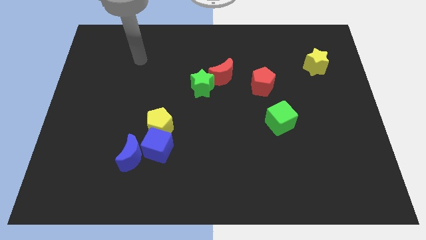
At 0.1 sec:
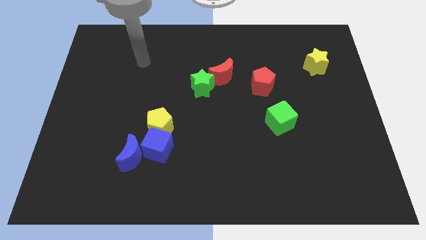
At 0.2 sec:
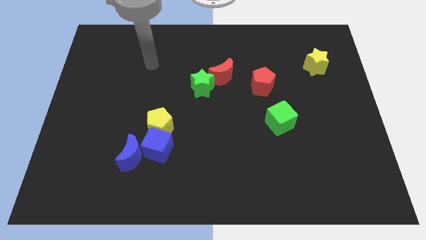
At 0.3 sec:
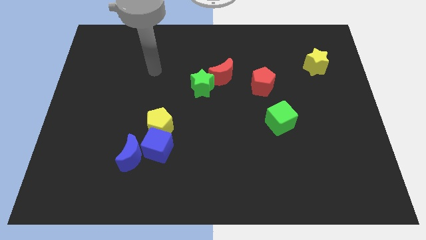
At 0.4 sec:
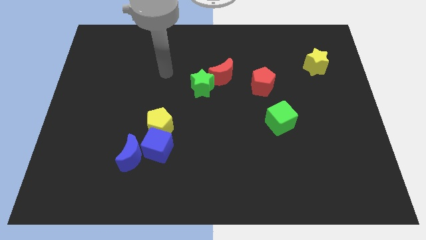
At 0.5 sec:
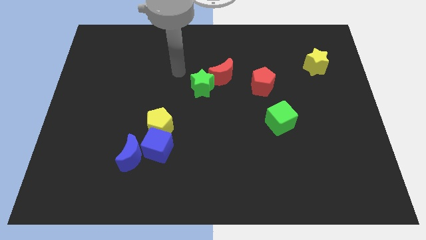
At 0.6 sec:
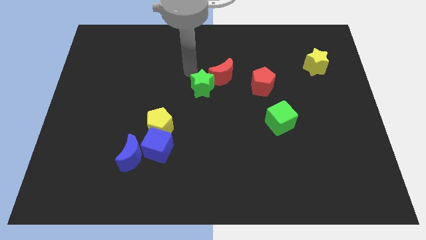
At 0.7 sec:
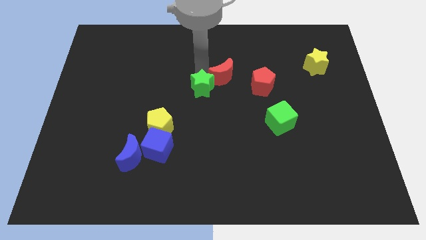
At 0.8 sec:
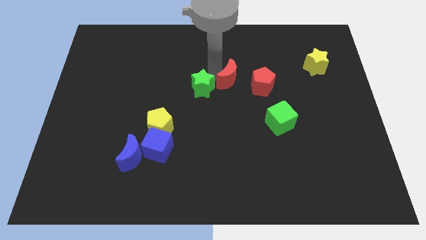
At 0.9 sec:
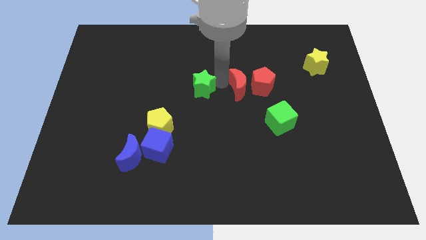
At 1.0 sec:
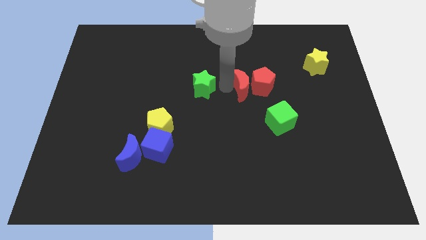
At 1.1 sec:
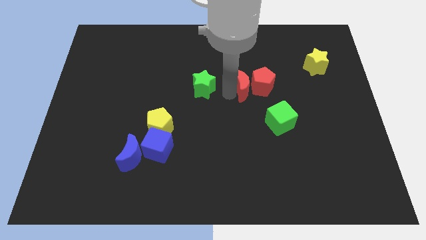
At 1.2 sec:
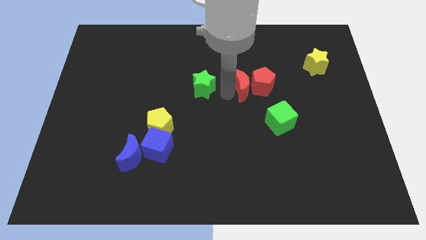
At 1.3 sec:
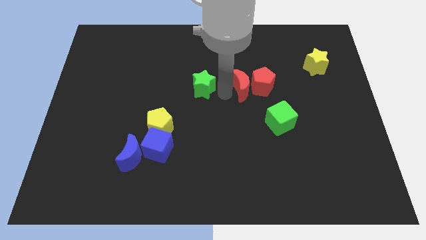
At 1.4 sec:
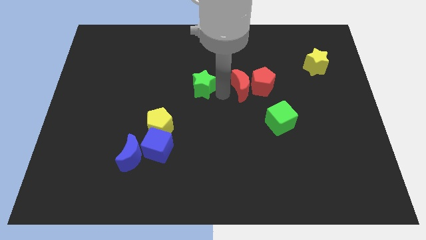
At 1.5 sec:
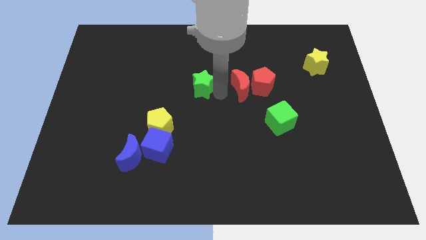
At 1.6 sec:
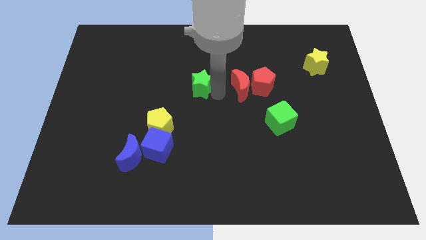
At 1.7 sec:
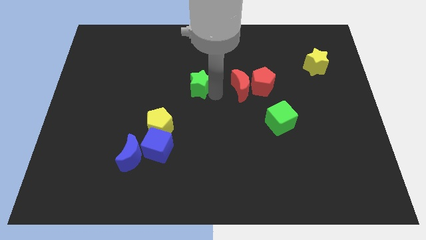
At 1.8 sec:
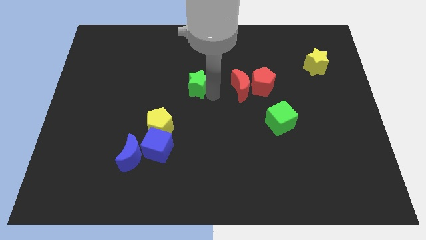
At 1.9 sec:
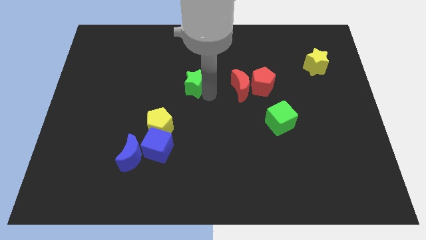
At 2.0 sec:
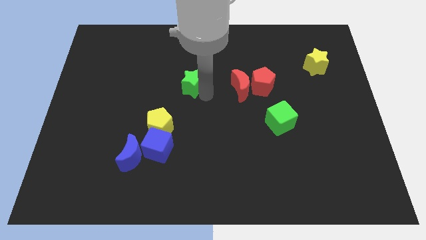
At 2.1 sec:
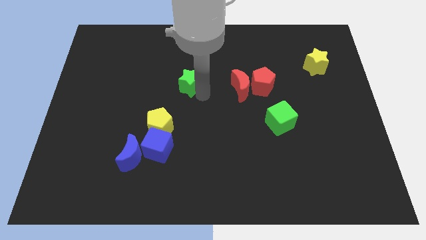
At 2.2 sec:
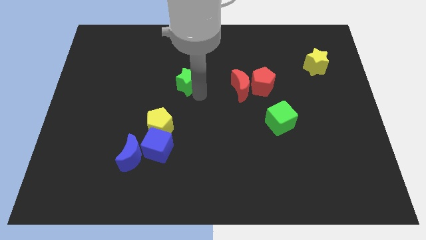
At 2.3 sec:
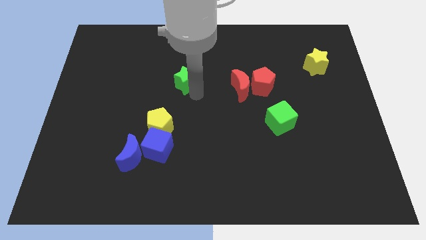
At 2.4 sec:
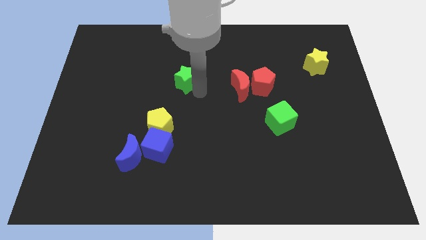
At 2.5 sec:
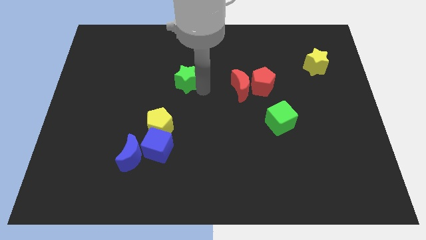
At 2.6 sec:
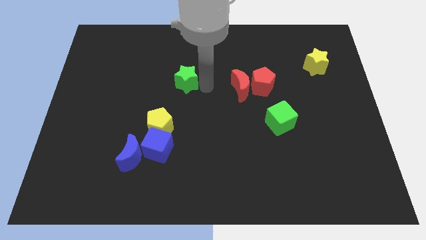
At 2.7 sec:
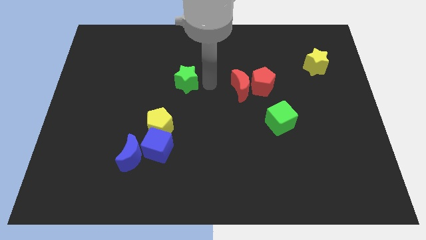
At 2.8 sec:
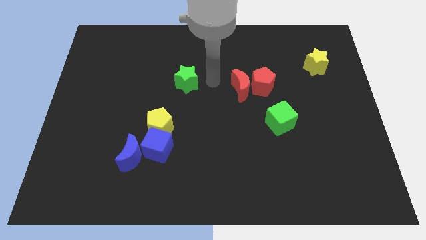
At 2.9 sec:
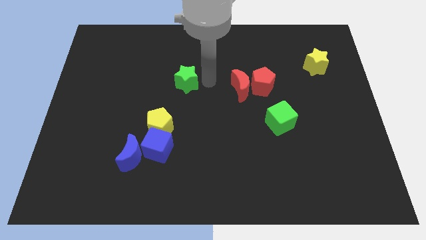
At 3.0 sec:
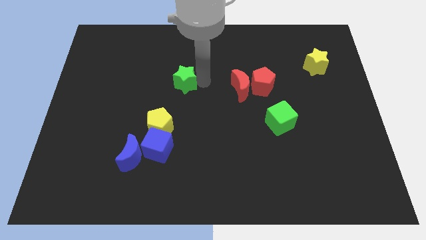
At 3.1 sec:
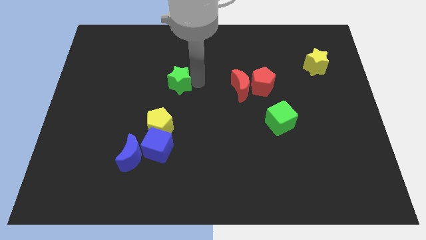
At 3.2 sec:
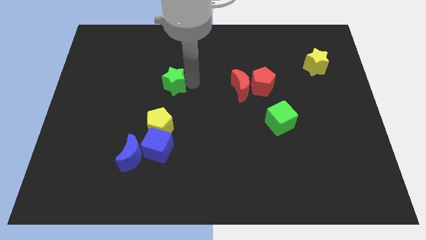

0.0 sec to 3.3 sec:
slightly slide the green star left

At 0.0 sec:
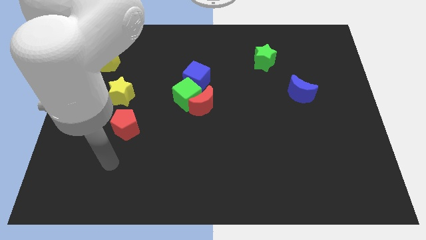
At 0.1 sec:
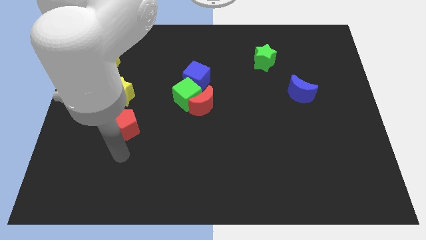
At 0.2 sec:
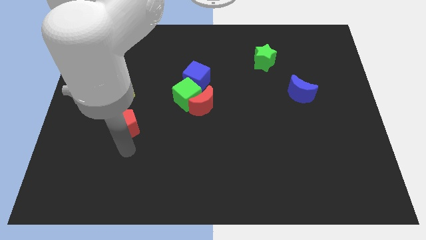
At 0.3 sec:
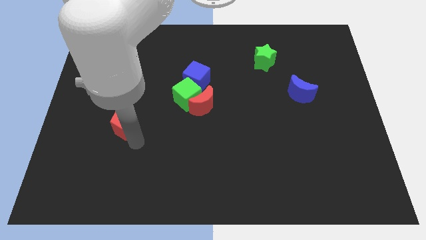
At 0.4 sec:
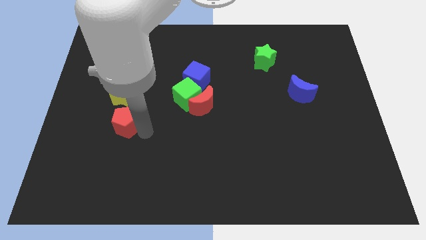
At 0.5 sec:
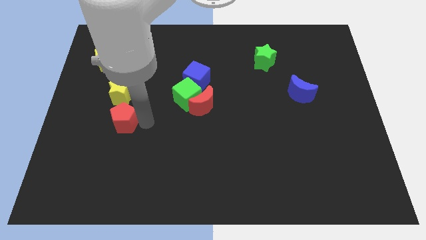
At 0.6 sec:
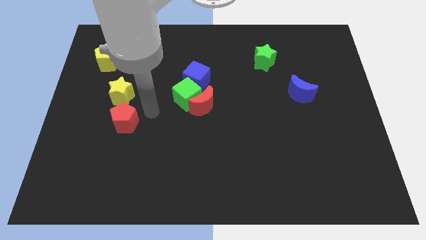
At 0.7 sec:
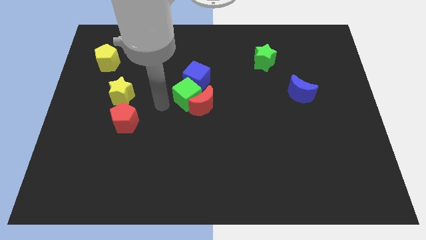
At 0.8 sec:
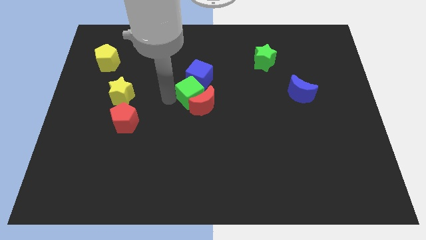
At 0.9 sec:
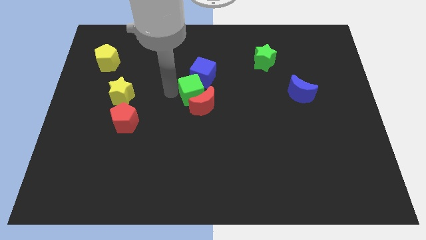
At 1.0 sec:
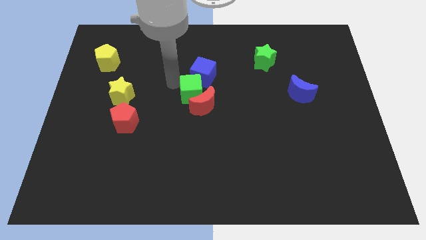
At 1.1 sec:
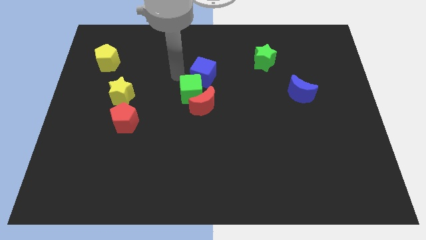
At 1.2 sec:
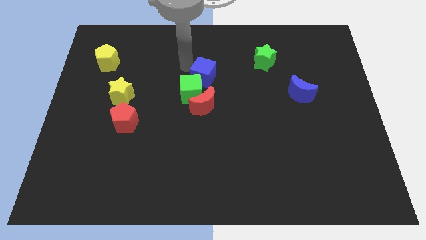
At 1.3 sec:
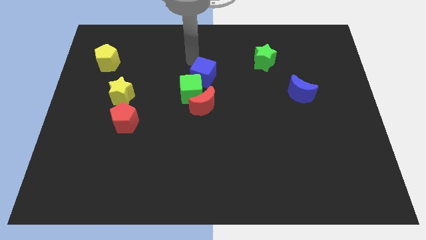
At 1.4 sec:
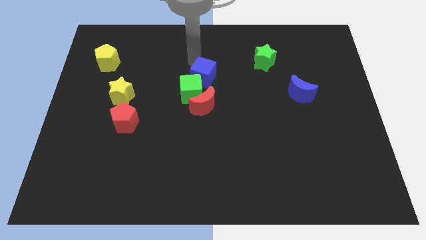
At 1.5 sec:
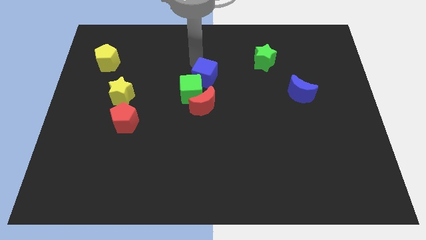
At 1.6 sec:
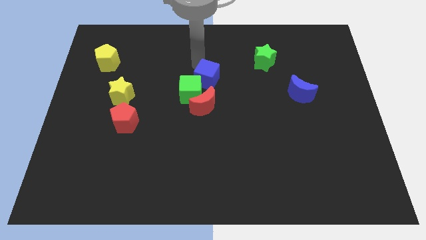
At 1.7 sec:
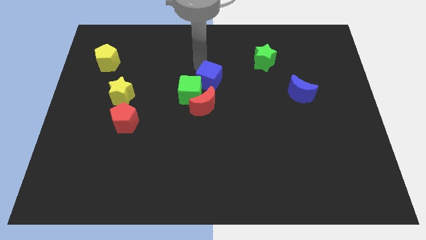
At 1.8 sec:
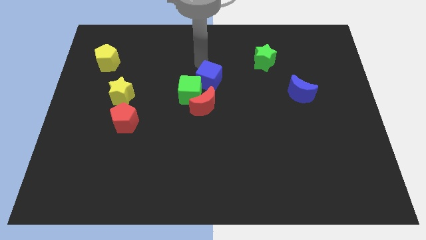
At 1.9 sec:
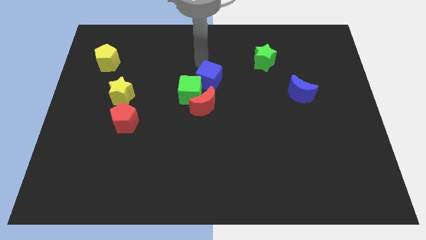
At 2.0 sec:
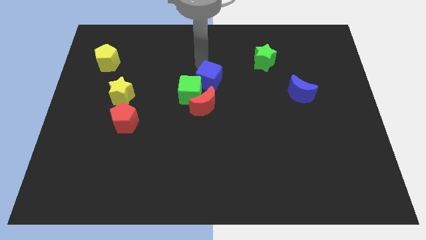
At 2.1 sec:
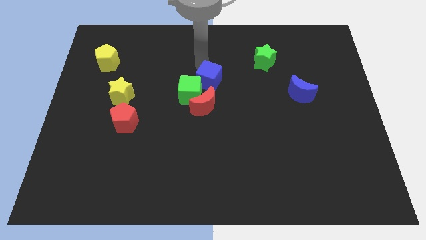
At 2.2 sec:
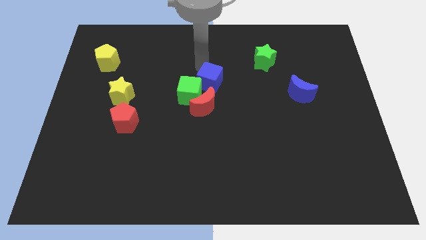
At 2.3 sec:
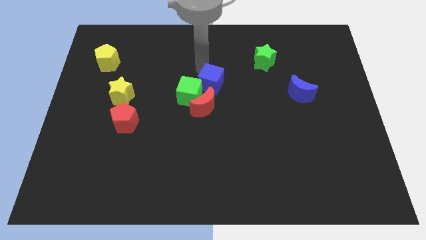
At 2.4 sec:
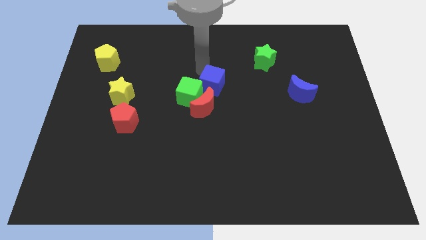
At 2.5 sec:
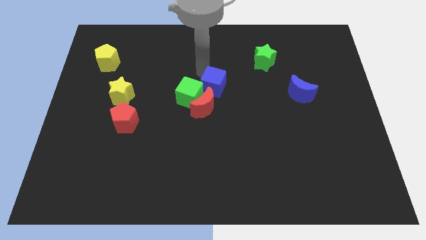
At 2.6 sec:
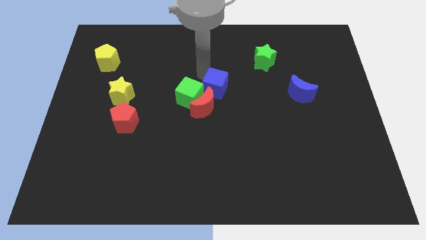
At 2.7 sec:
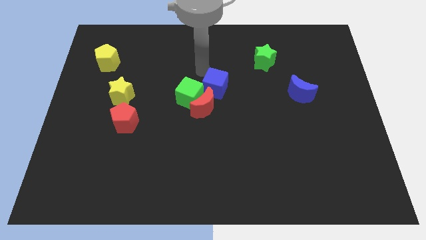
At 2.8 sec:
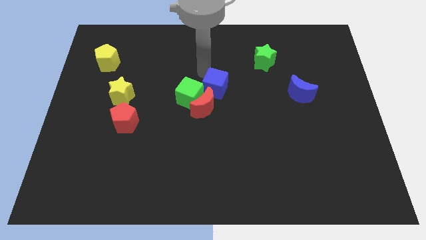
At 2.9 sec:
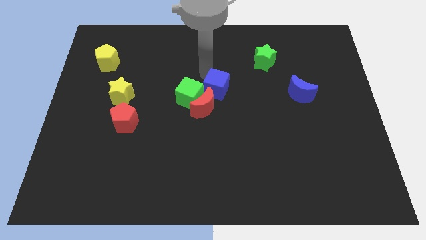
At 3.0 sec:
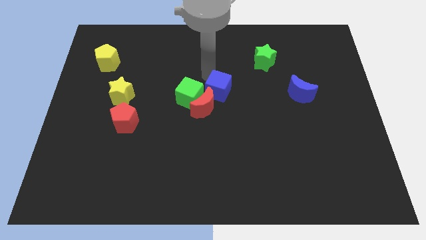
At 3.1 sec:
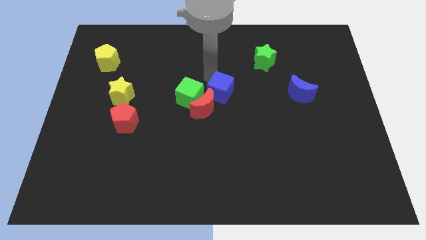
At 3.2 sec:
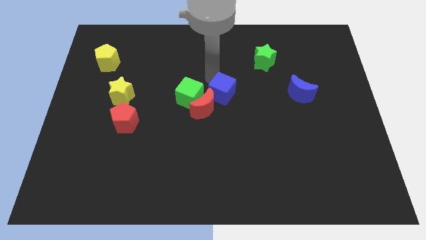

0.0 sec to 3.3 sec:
slightly move the blue cube downwards and then right

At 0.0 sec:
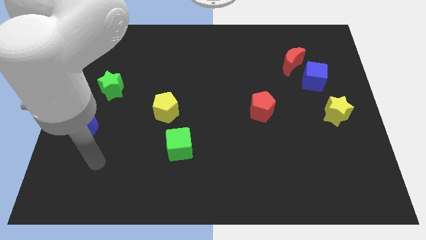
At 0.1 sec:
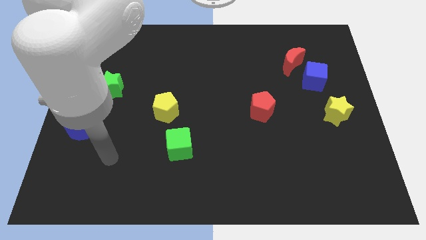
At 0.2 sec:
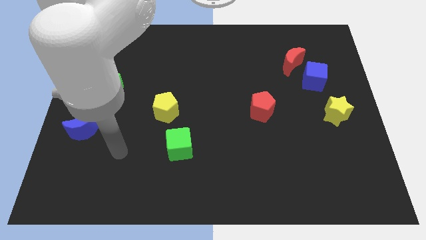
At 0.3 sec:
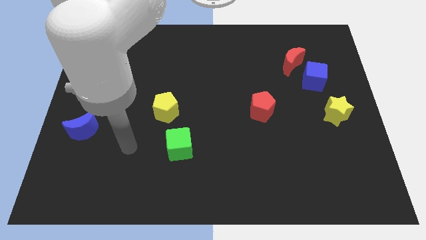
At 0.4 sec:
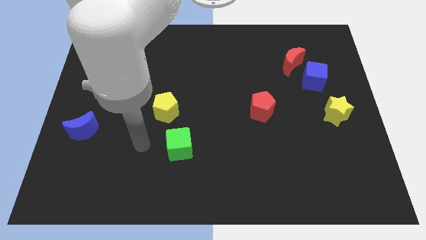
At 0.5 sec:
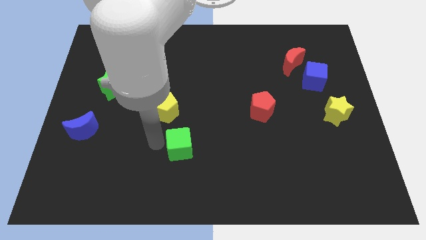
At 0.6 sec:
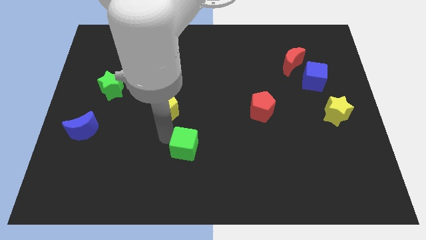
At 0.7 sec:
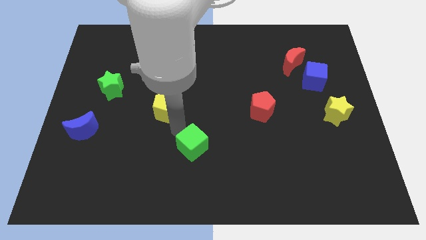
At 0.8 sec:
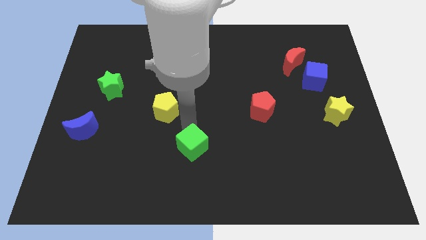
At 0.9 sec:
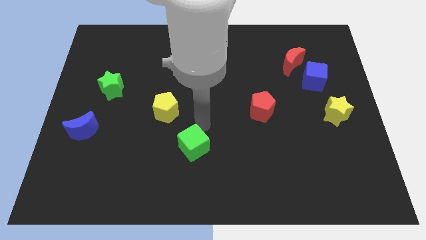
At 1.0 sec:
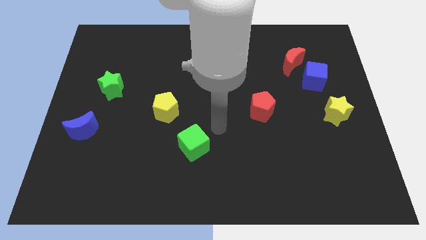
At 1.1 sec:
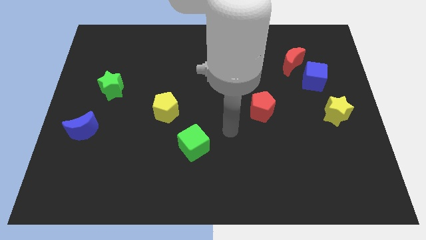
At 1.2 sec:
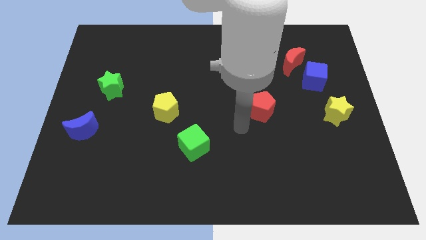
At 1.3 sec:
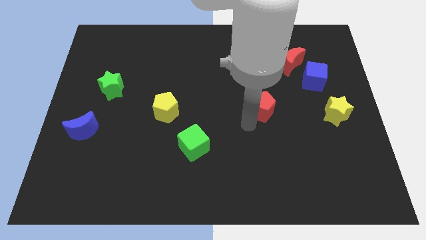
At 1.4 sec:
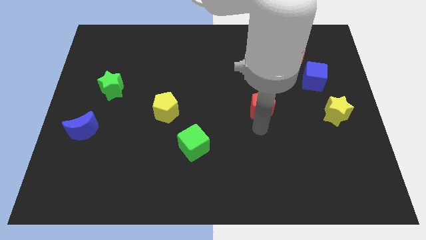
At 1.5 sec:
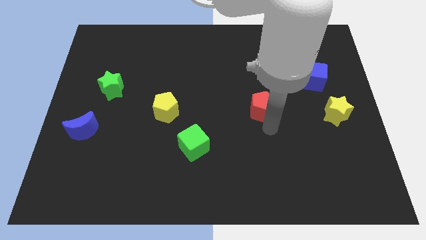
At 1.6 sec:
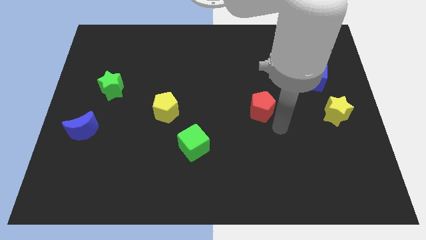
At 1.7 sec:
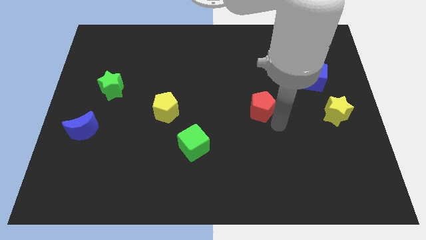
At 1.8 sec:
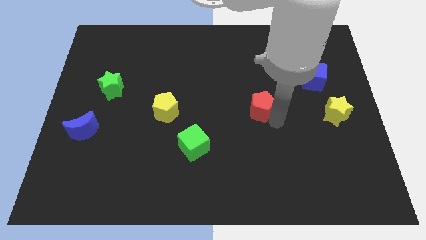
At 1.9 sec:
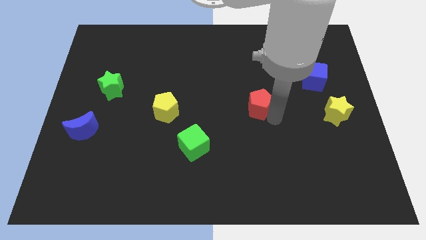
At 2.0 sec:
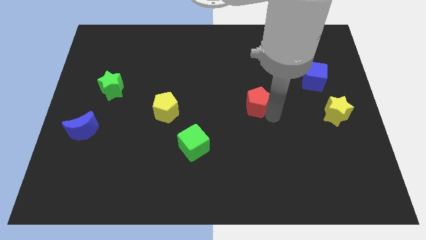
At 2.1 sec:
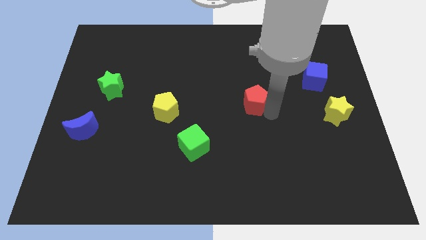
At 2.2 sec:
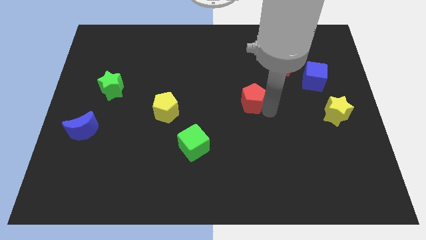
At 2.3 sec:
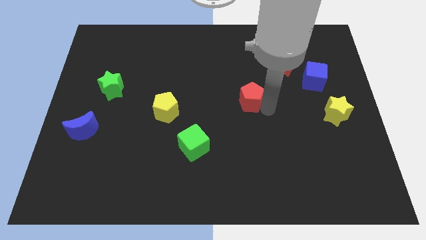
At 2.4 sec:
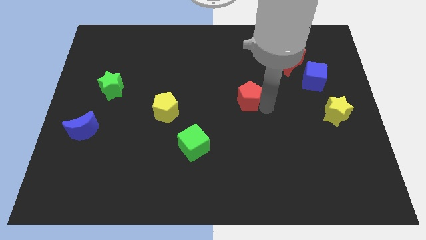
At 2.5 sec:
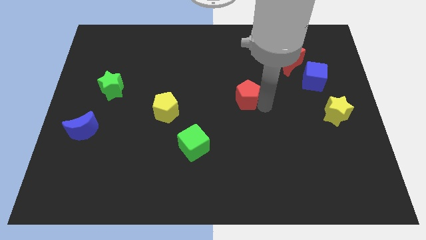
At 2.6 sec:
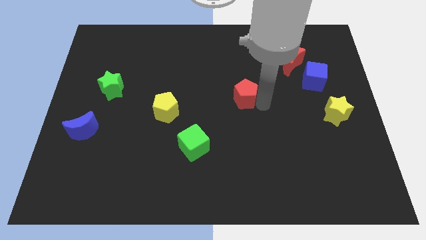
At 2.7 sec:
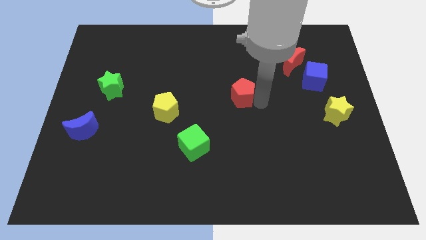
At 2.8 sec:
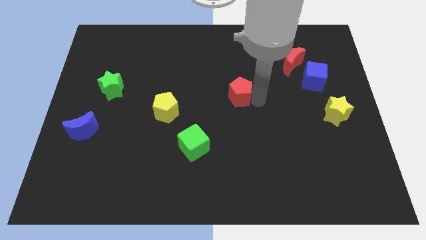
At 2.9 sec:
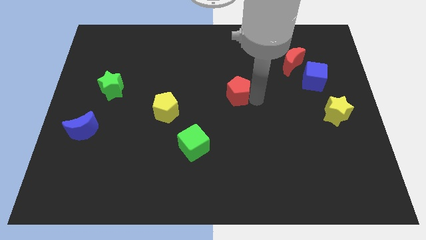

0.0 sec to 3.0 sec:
slide the red pentagon somewhat diagonally up and to the left
